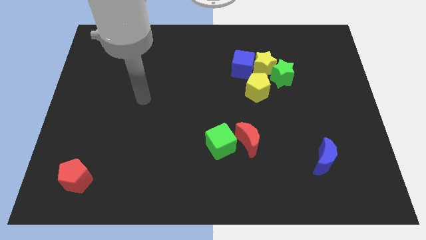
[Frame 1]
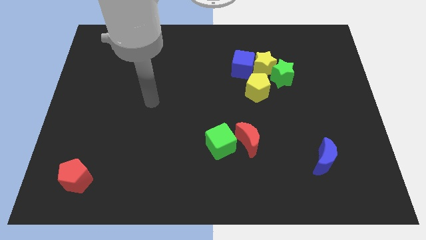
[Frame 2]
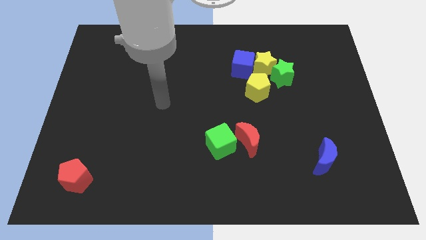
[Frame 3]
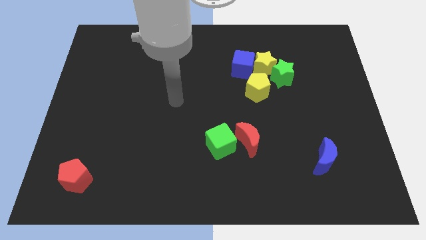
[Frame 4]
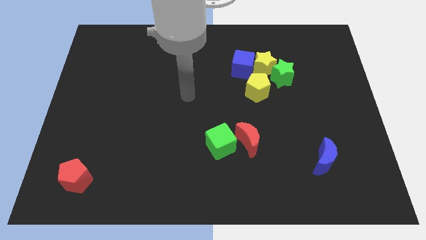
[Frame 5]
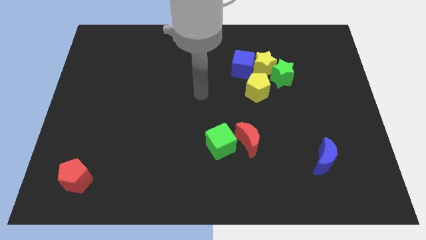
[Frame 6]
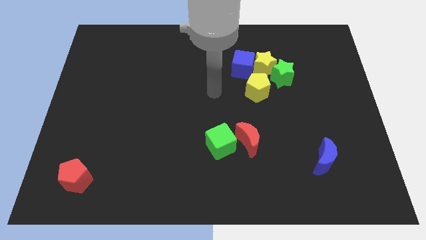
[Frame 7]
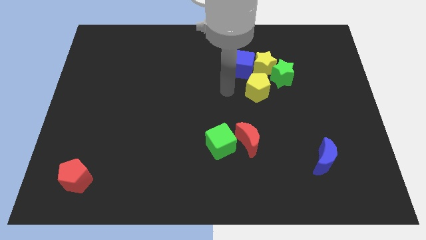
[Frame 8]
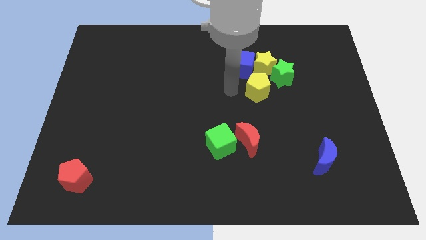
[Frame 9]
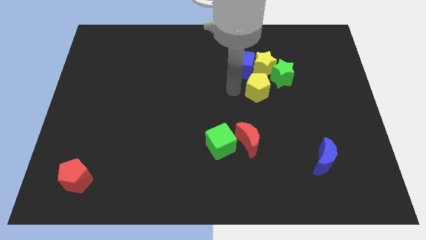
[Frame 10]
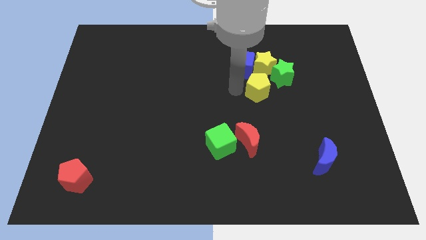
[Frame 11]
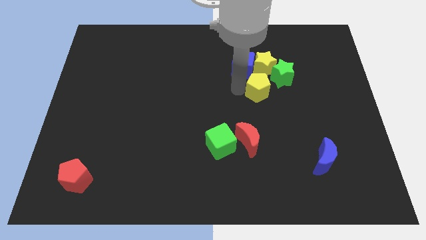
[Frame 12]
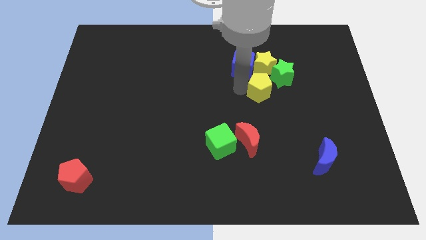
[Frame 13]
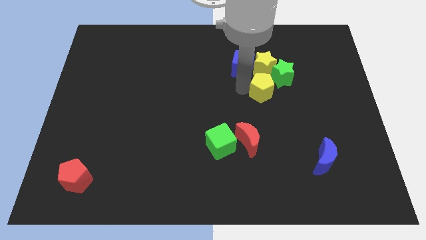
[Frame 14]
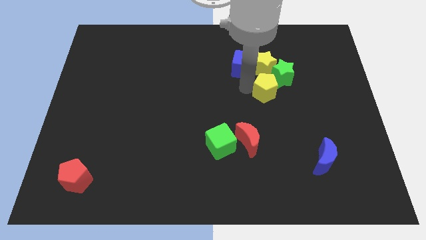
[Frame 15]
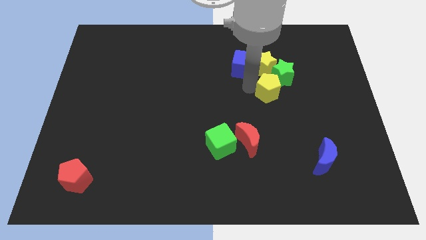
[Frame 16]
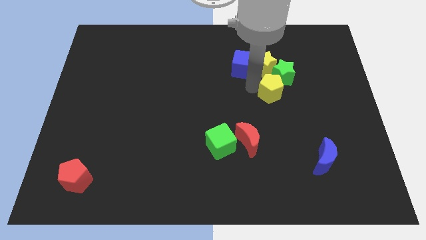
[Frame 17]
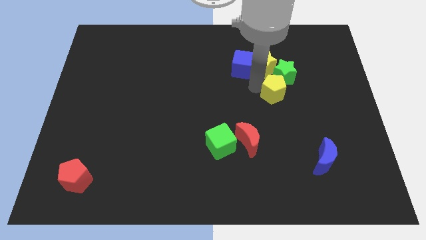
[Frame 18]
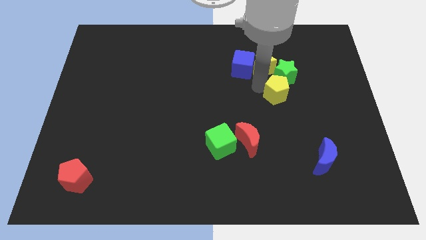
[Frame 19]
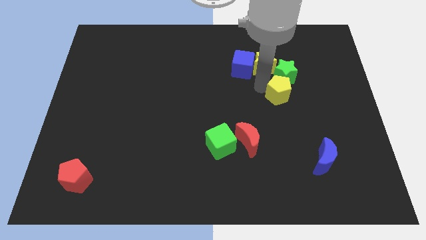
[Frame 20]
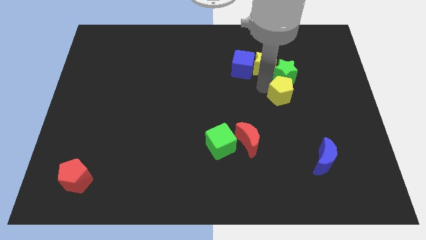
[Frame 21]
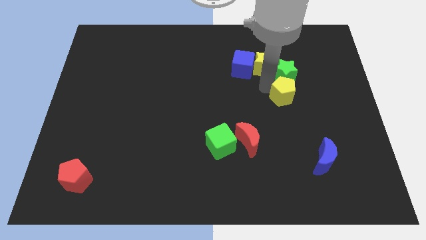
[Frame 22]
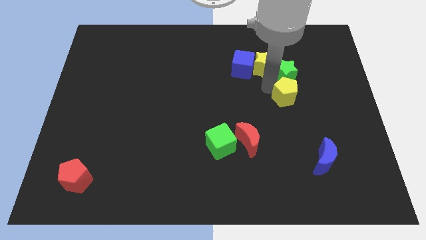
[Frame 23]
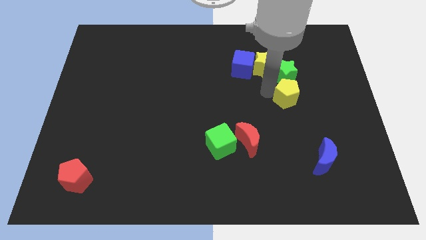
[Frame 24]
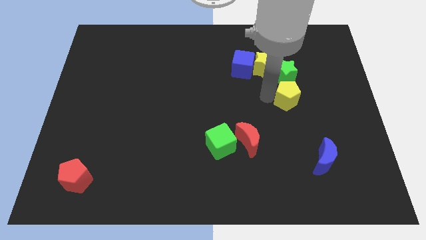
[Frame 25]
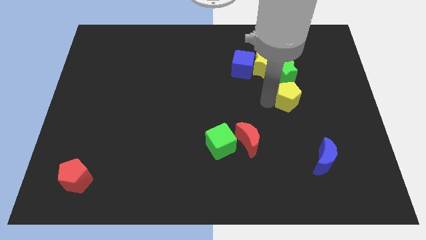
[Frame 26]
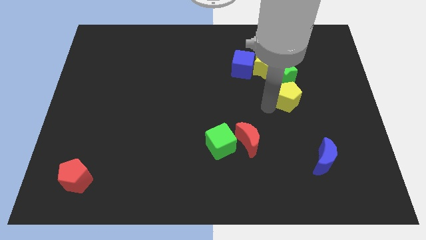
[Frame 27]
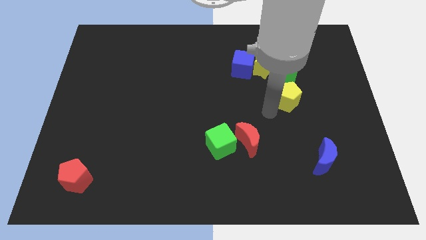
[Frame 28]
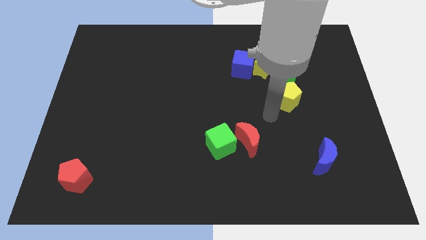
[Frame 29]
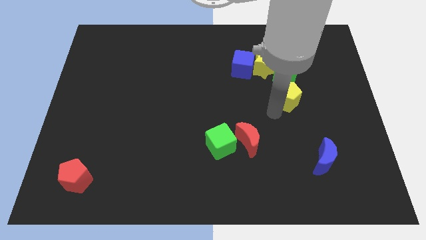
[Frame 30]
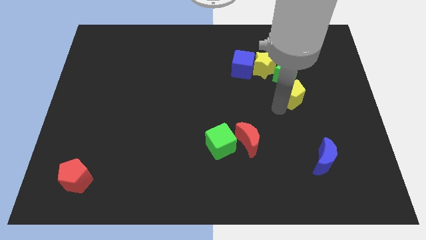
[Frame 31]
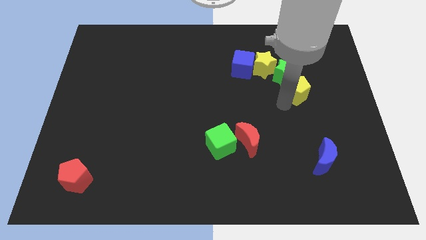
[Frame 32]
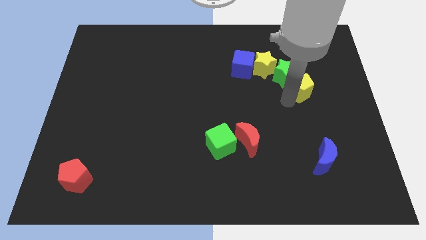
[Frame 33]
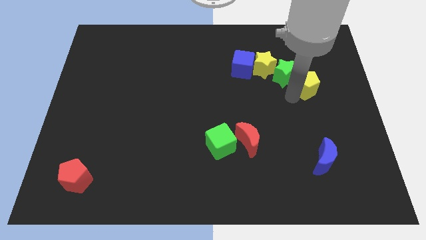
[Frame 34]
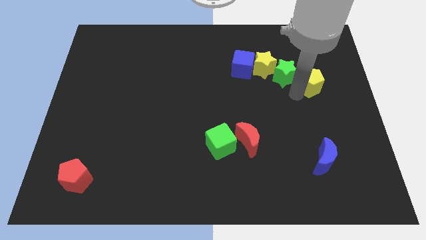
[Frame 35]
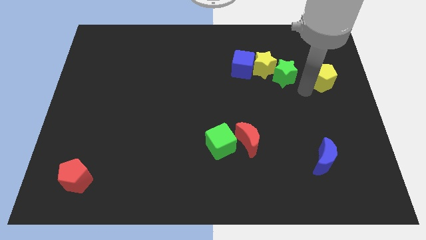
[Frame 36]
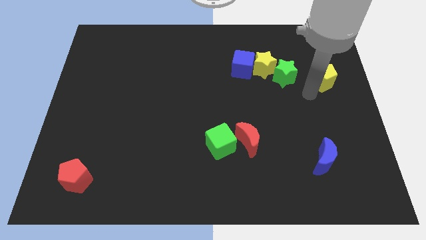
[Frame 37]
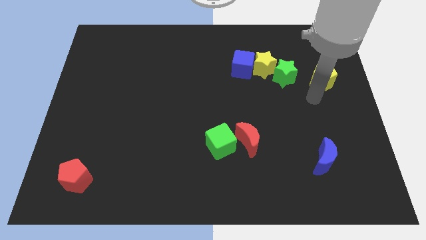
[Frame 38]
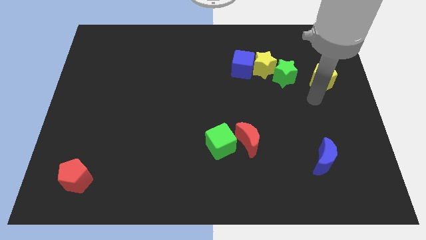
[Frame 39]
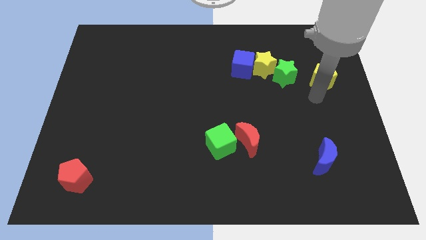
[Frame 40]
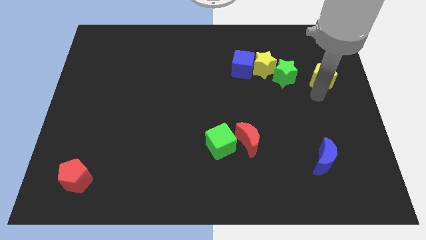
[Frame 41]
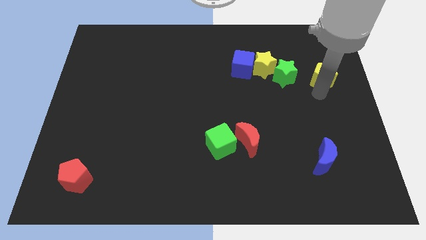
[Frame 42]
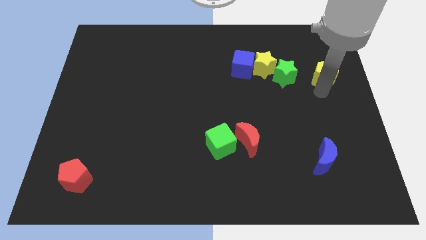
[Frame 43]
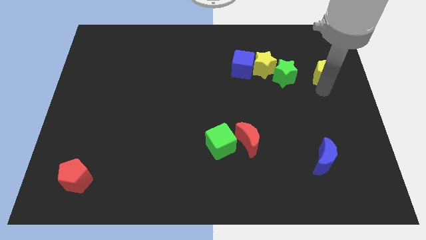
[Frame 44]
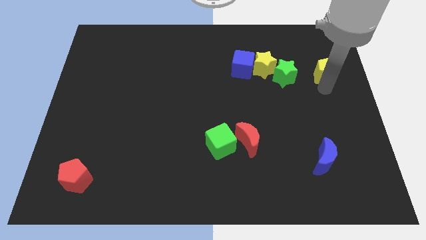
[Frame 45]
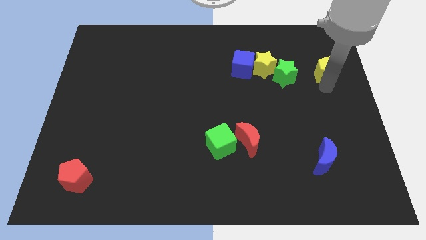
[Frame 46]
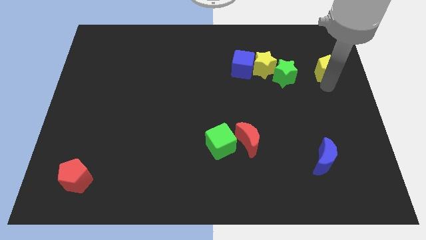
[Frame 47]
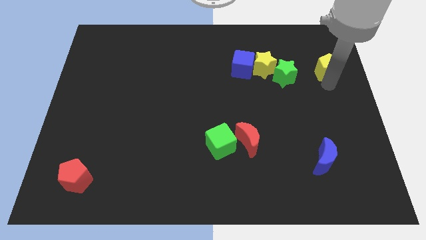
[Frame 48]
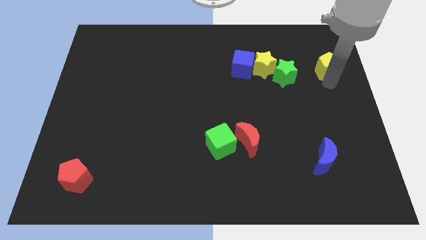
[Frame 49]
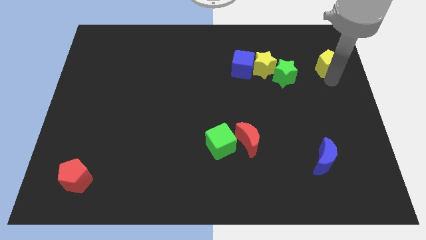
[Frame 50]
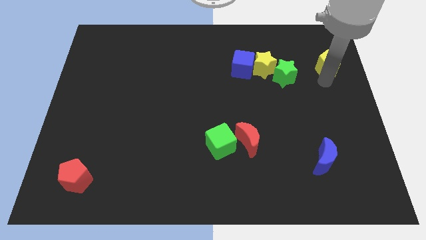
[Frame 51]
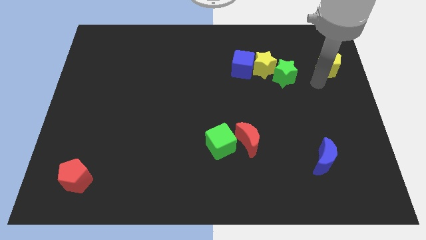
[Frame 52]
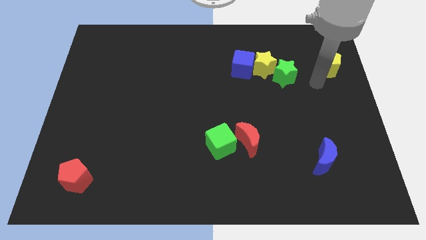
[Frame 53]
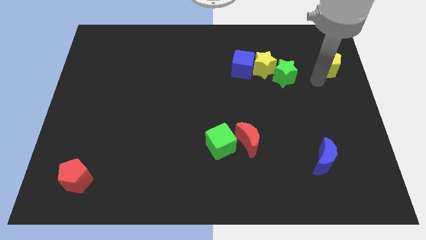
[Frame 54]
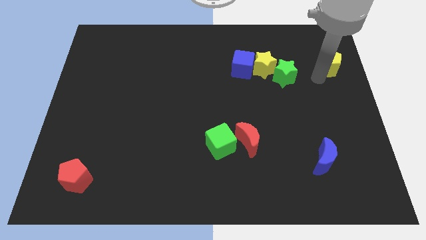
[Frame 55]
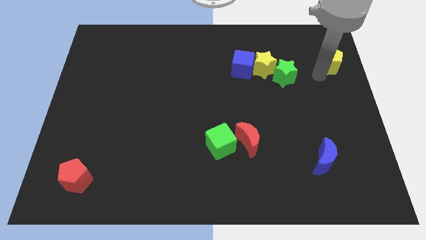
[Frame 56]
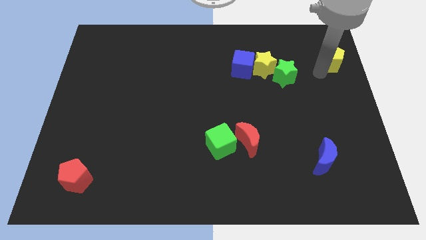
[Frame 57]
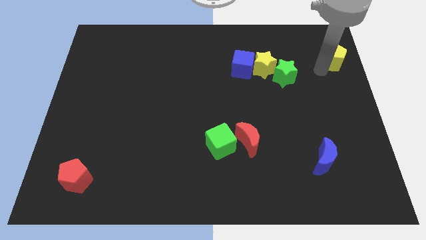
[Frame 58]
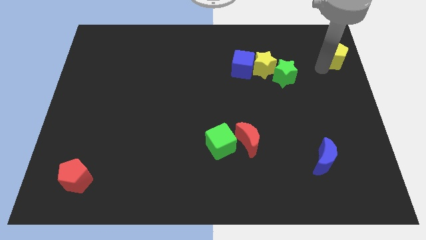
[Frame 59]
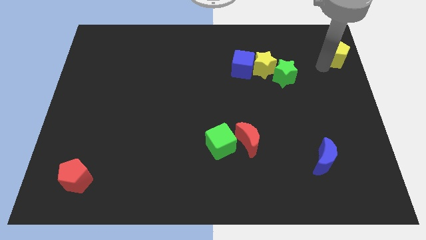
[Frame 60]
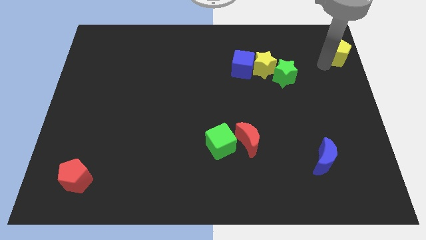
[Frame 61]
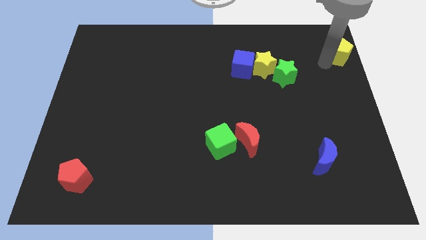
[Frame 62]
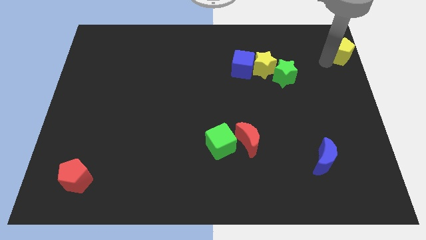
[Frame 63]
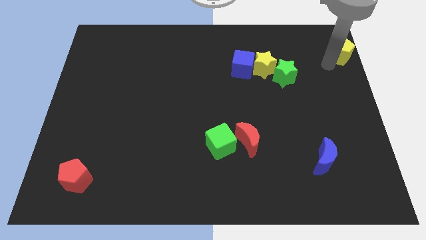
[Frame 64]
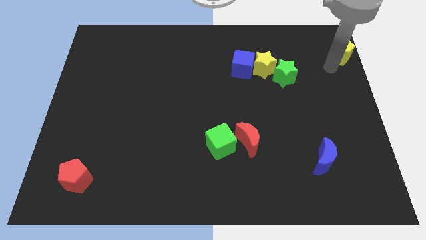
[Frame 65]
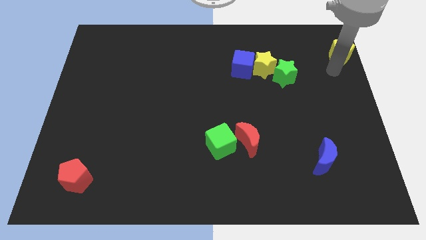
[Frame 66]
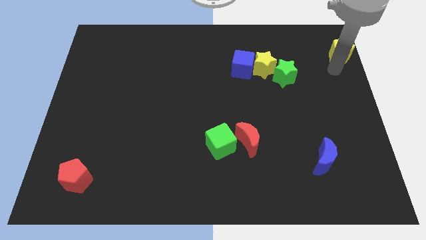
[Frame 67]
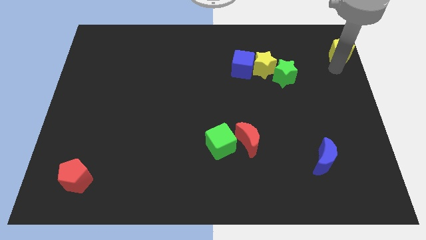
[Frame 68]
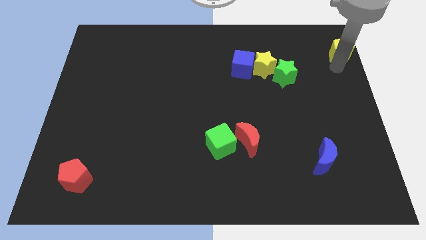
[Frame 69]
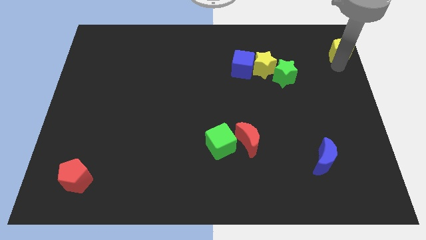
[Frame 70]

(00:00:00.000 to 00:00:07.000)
slide the yellow pentagon to the upper right corner
